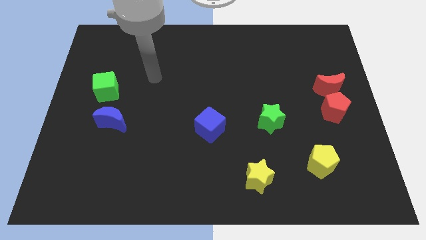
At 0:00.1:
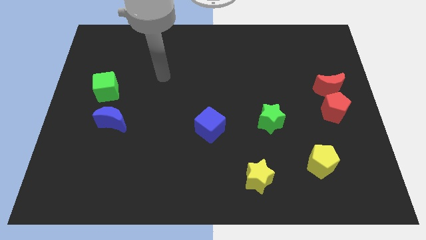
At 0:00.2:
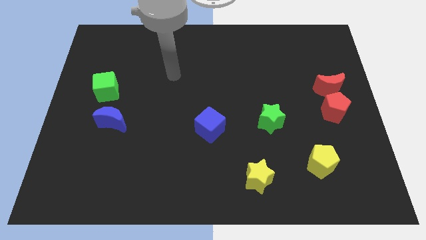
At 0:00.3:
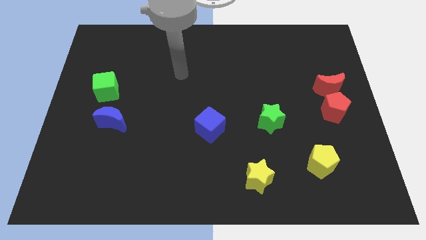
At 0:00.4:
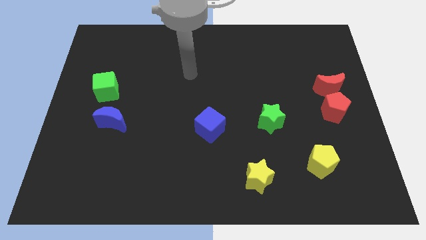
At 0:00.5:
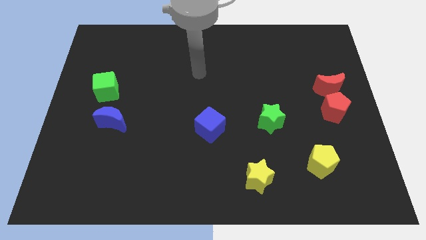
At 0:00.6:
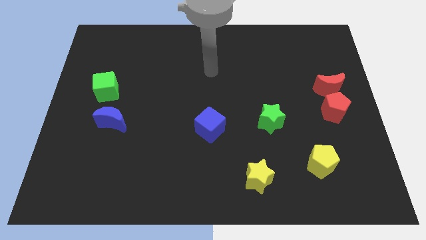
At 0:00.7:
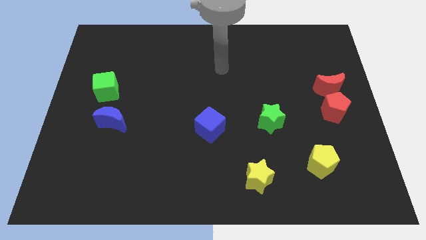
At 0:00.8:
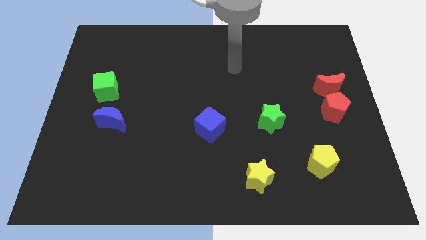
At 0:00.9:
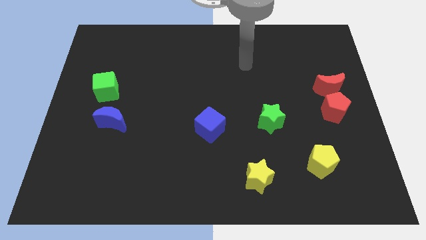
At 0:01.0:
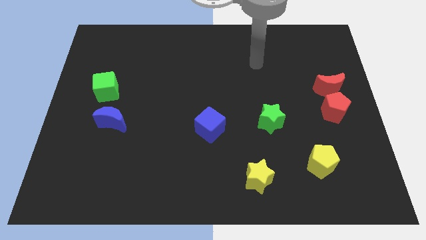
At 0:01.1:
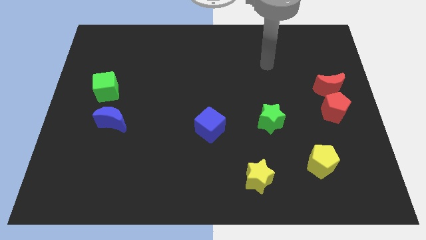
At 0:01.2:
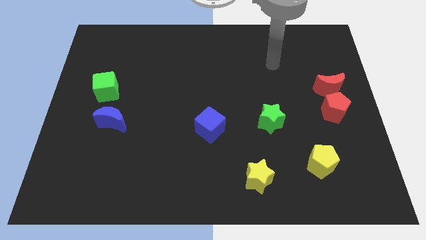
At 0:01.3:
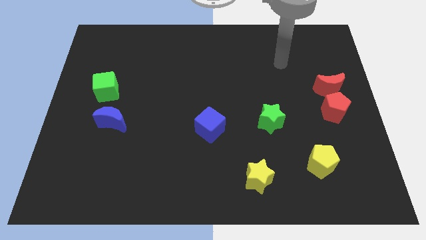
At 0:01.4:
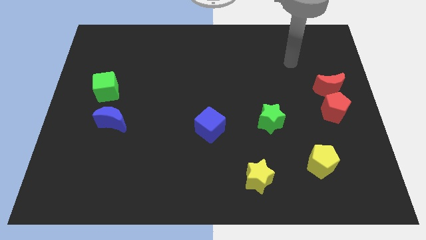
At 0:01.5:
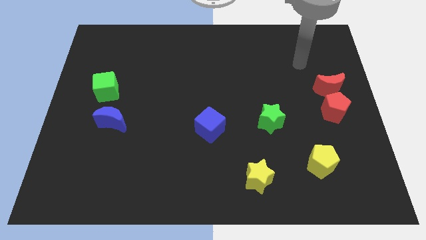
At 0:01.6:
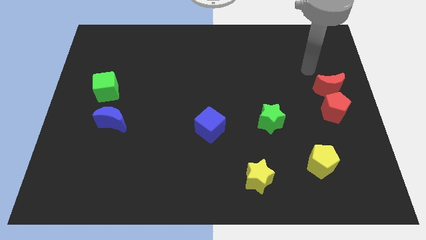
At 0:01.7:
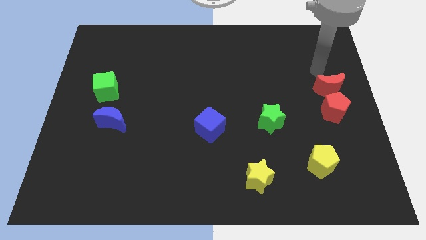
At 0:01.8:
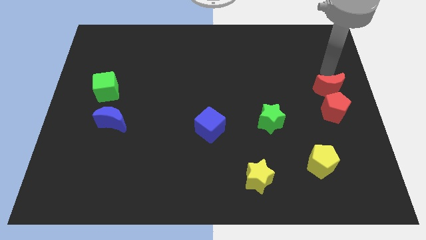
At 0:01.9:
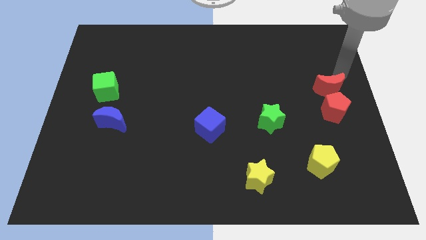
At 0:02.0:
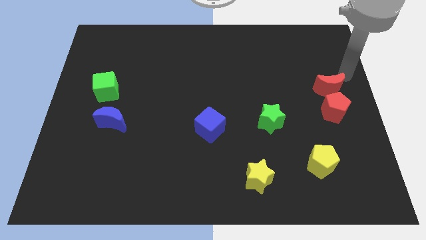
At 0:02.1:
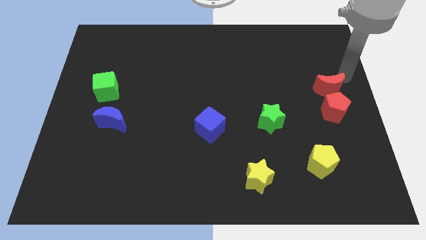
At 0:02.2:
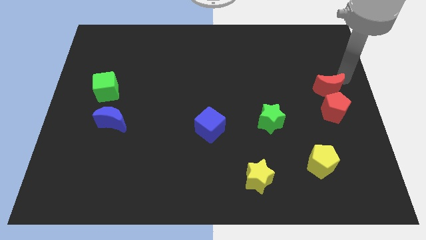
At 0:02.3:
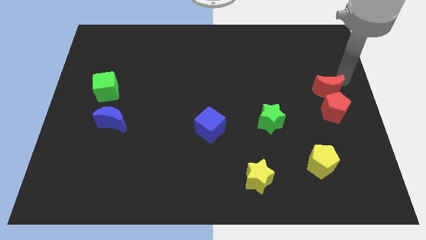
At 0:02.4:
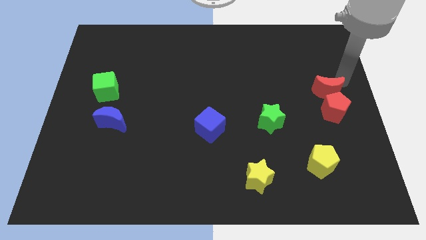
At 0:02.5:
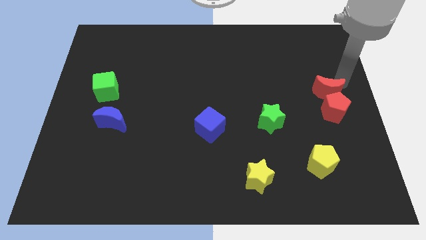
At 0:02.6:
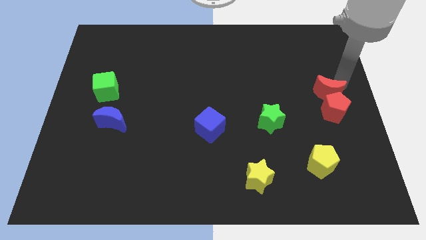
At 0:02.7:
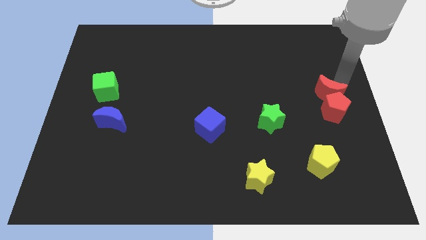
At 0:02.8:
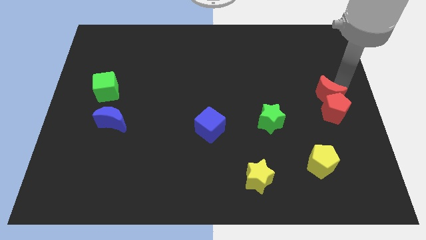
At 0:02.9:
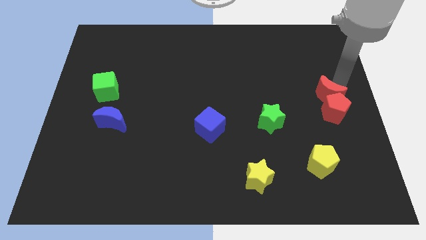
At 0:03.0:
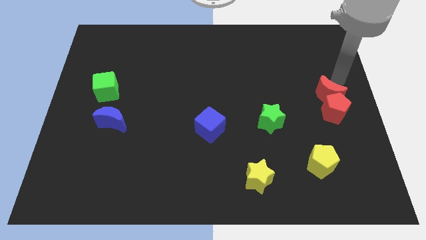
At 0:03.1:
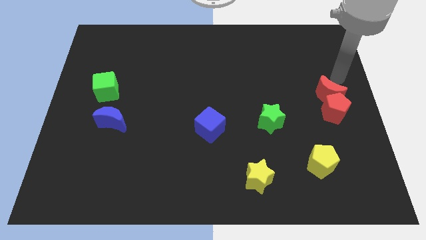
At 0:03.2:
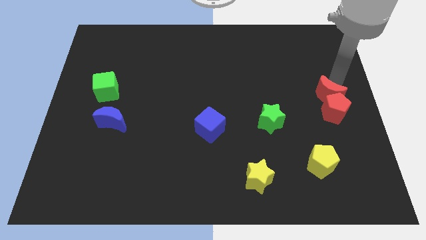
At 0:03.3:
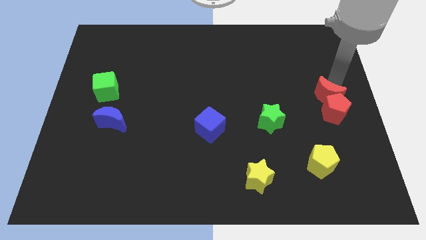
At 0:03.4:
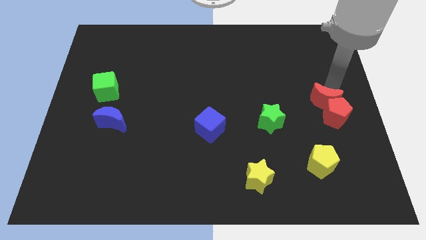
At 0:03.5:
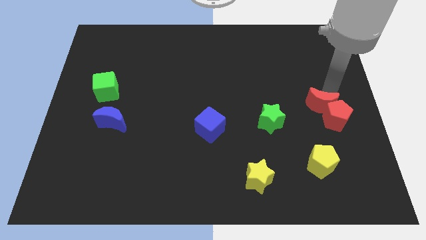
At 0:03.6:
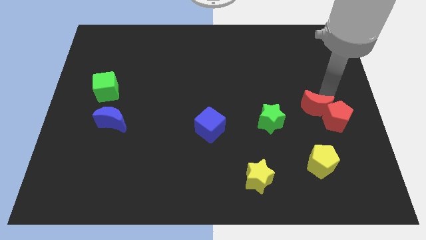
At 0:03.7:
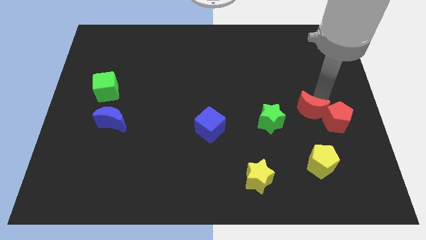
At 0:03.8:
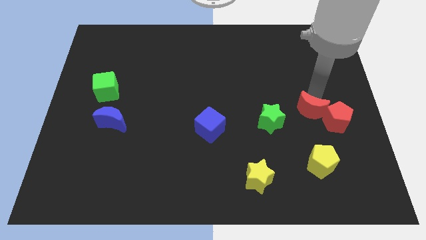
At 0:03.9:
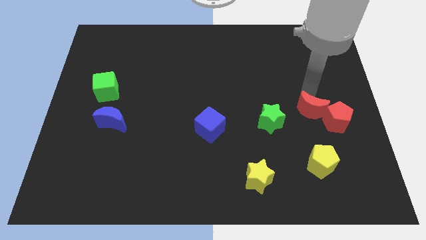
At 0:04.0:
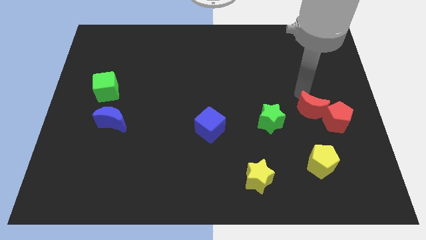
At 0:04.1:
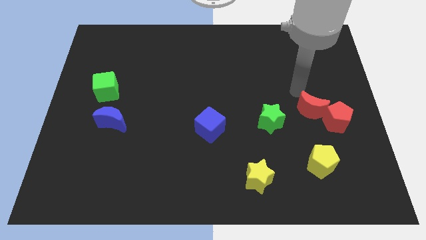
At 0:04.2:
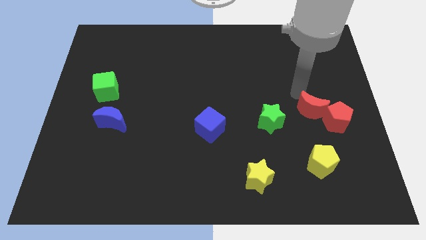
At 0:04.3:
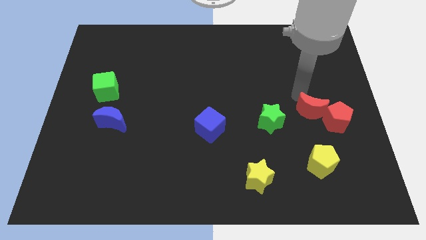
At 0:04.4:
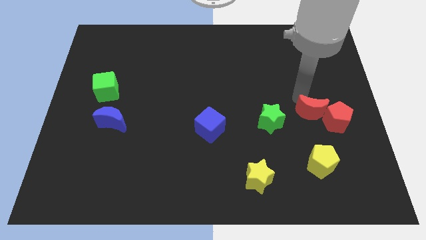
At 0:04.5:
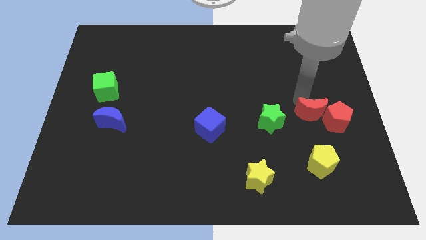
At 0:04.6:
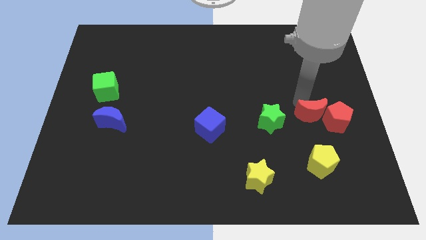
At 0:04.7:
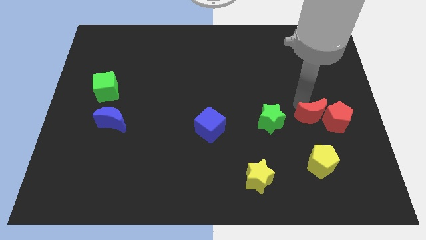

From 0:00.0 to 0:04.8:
slide the red moon a bit down

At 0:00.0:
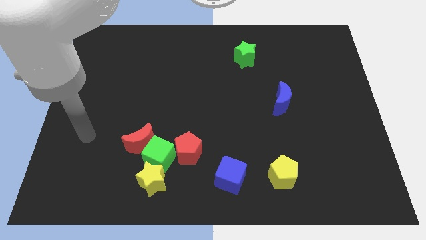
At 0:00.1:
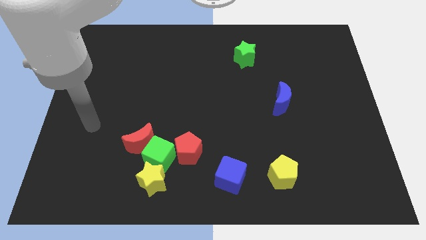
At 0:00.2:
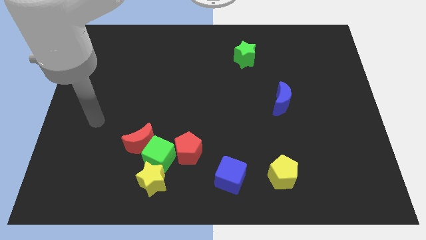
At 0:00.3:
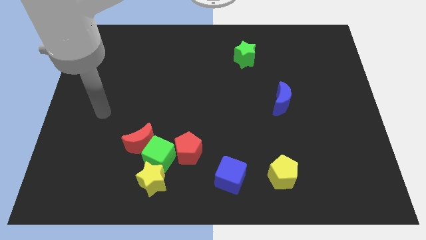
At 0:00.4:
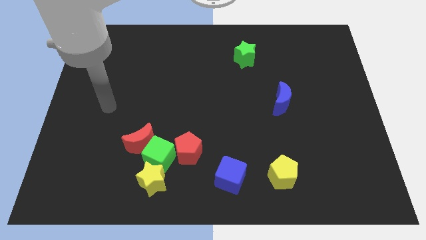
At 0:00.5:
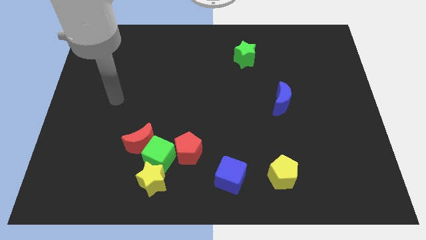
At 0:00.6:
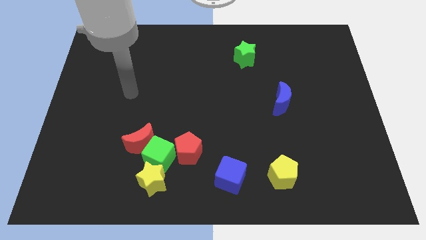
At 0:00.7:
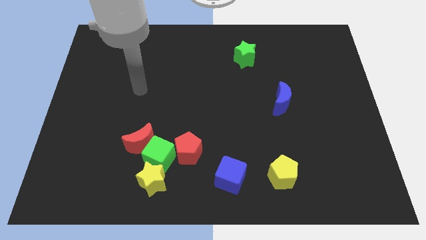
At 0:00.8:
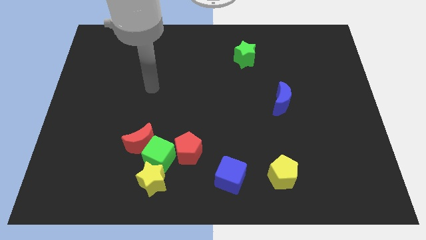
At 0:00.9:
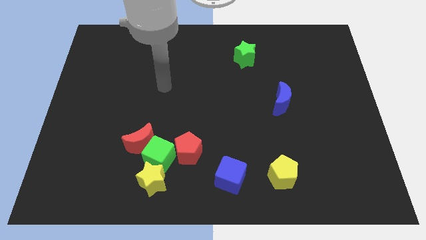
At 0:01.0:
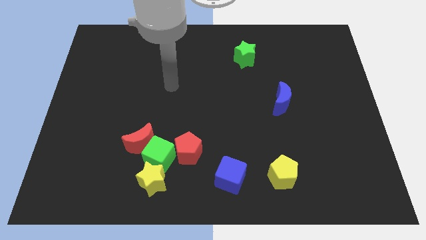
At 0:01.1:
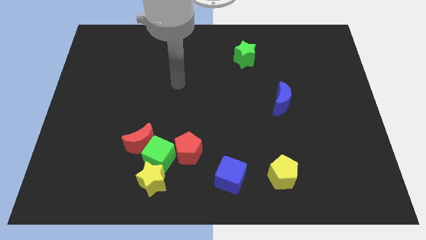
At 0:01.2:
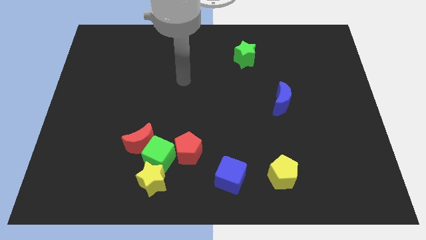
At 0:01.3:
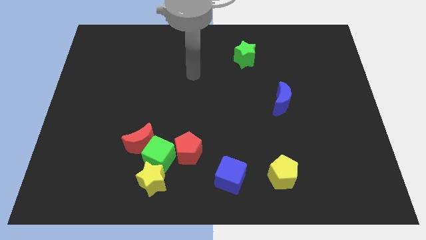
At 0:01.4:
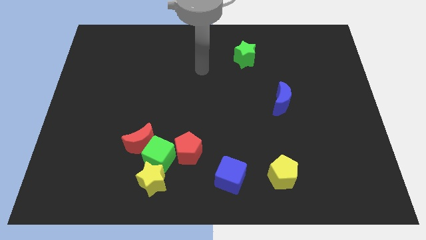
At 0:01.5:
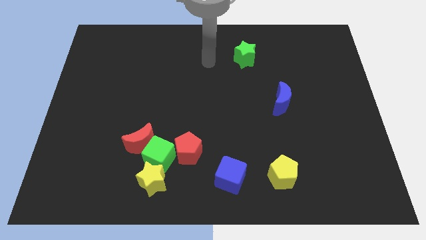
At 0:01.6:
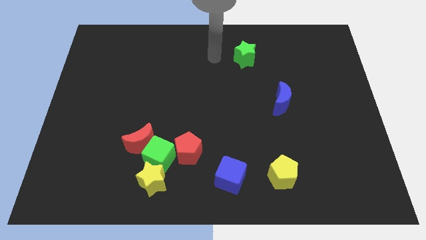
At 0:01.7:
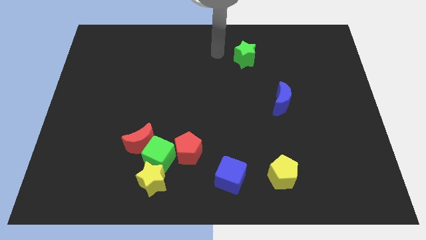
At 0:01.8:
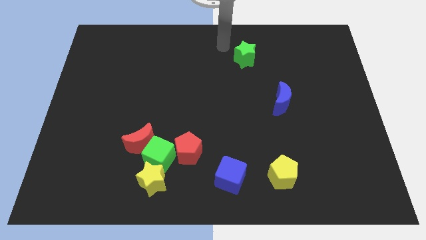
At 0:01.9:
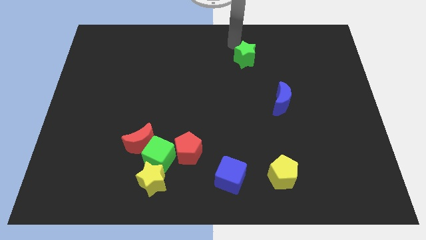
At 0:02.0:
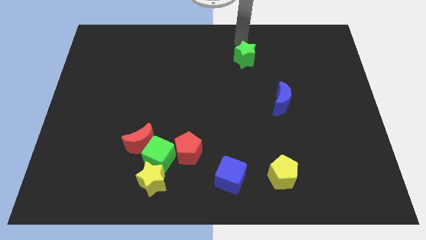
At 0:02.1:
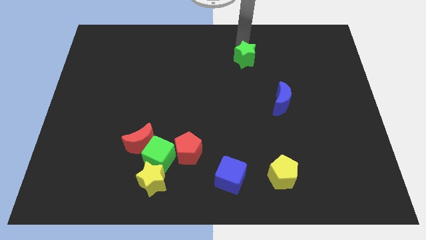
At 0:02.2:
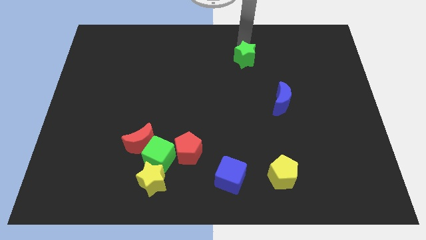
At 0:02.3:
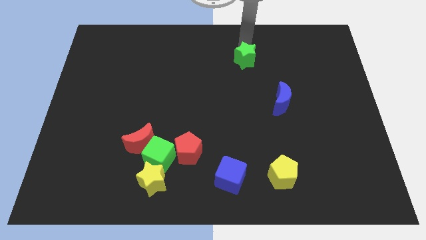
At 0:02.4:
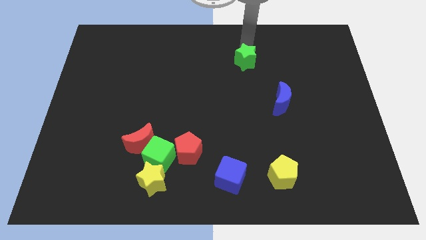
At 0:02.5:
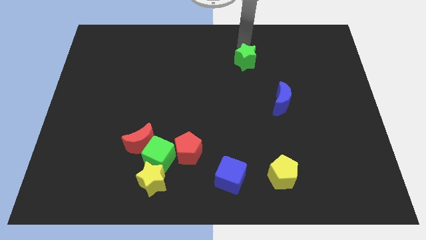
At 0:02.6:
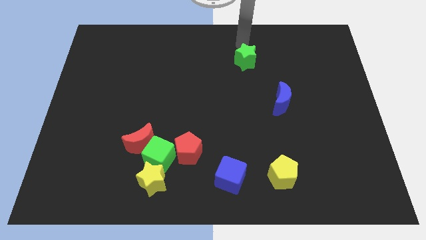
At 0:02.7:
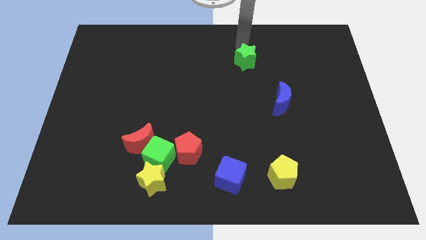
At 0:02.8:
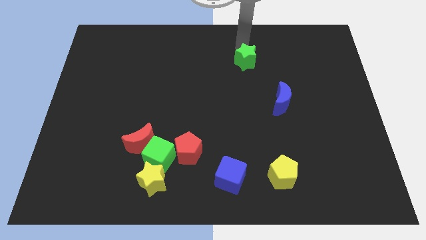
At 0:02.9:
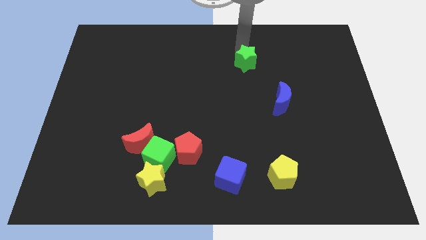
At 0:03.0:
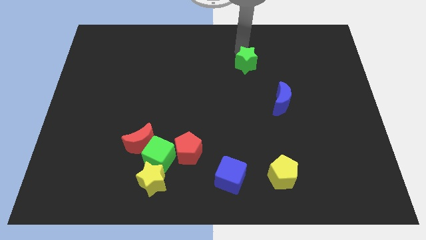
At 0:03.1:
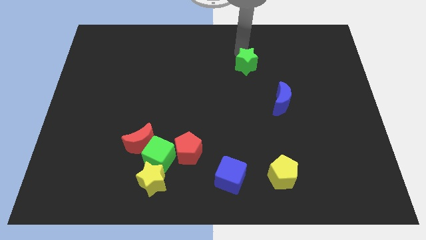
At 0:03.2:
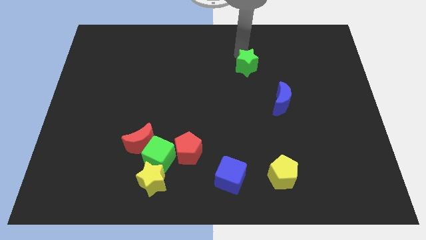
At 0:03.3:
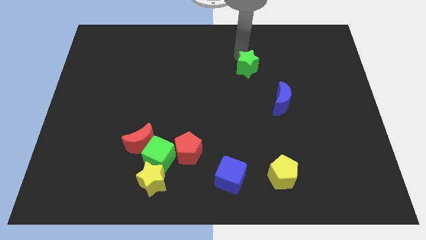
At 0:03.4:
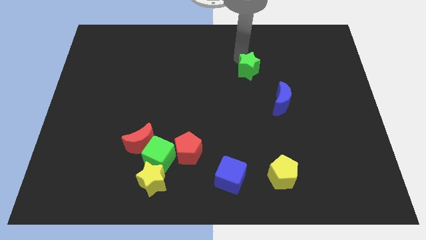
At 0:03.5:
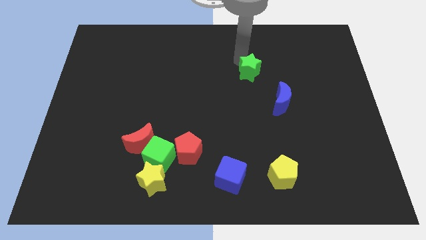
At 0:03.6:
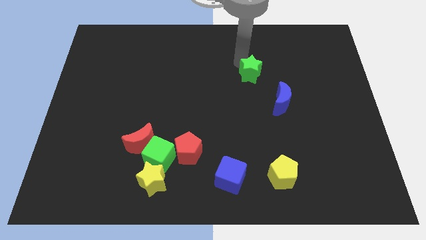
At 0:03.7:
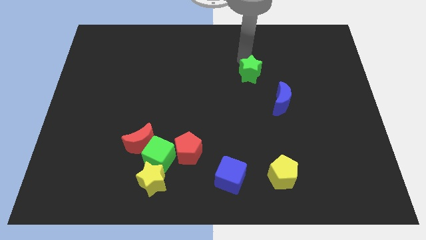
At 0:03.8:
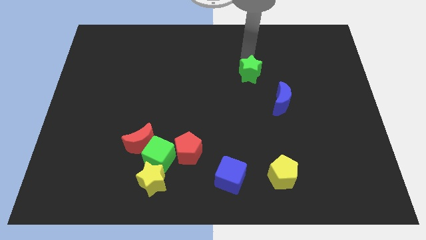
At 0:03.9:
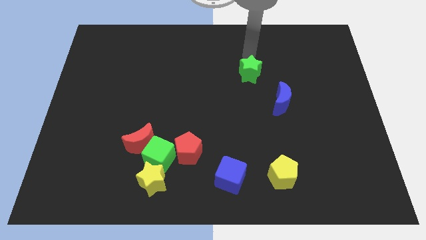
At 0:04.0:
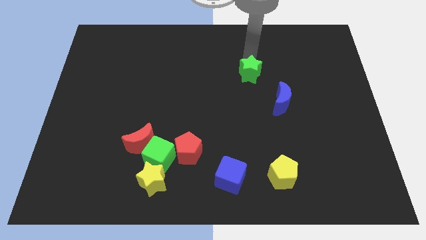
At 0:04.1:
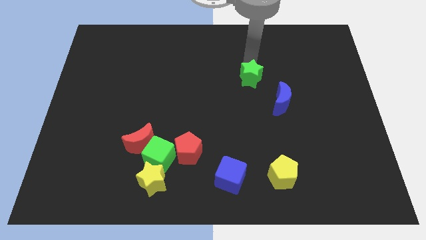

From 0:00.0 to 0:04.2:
slightly push the green star down
